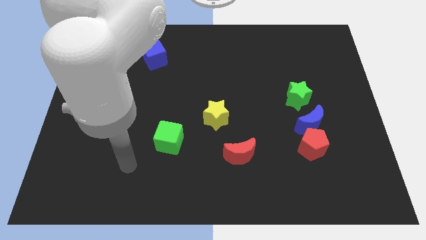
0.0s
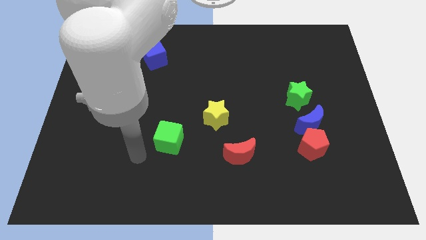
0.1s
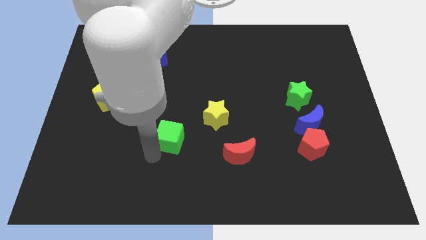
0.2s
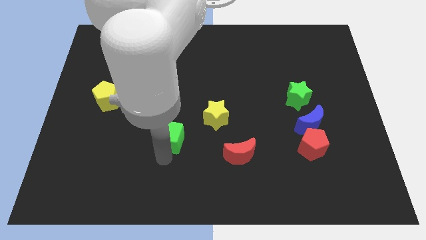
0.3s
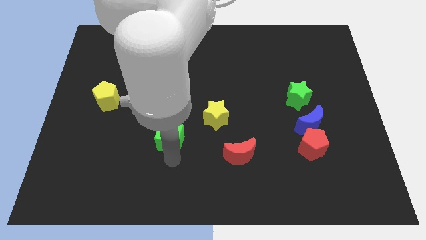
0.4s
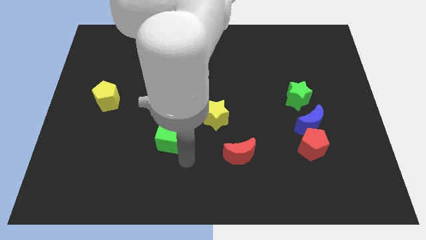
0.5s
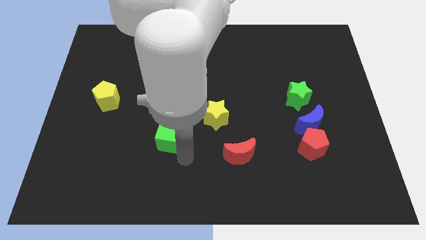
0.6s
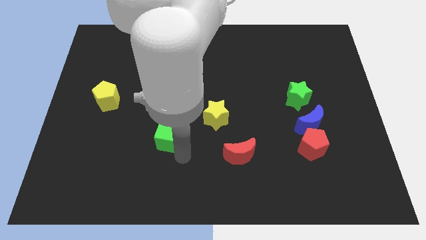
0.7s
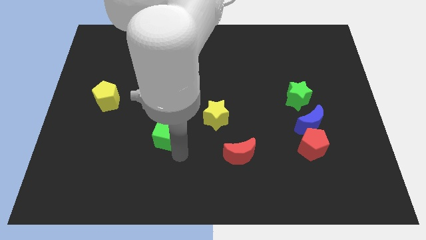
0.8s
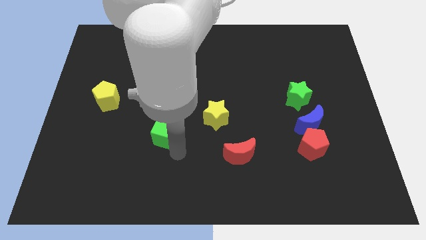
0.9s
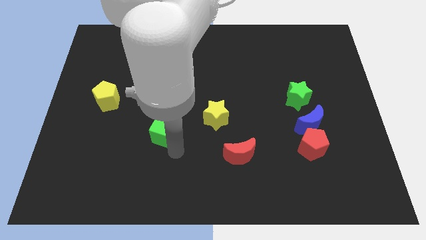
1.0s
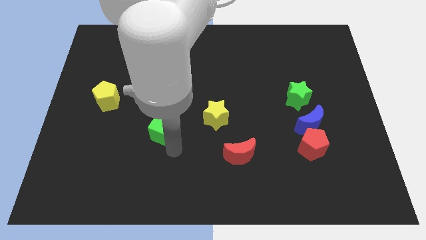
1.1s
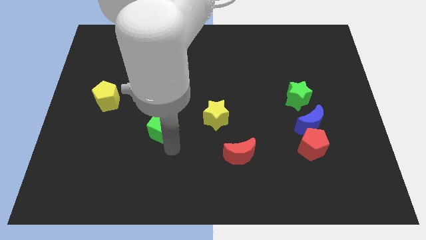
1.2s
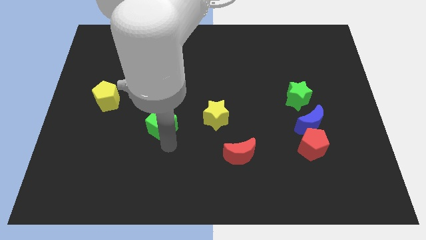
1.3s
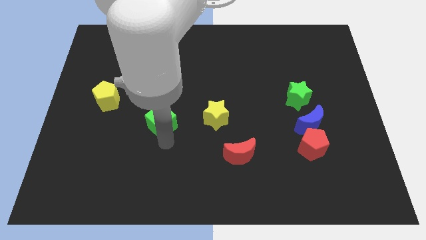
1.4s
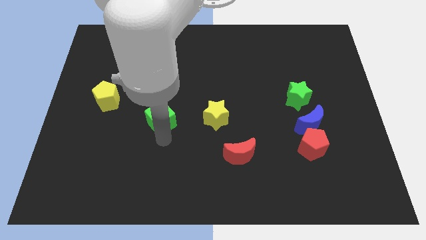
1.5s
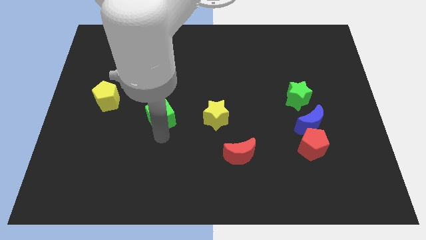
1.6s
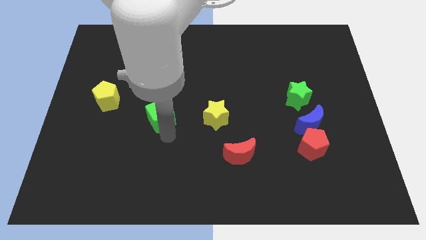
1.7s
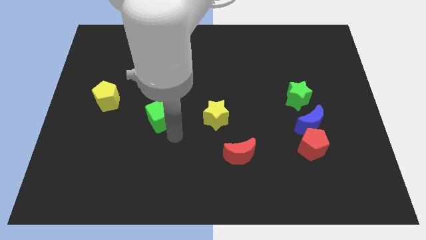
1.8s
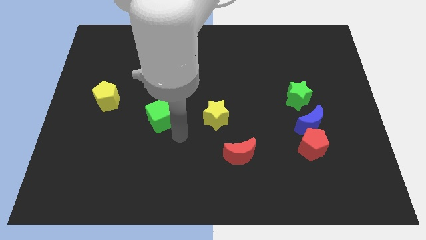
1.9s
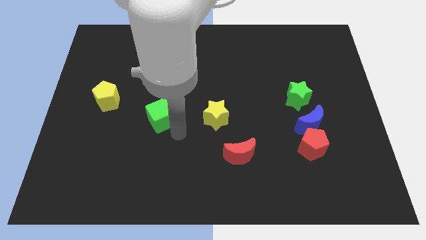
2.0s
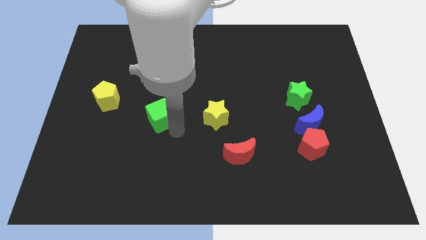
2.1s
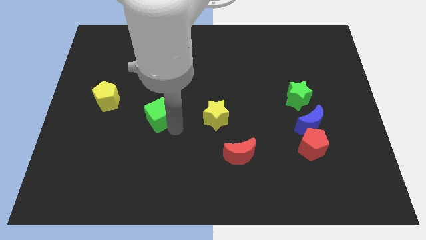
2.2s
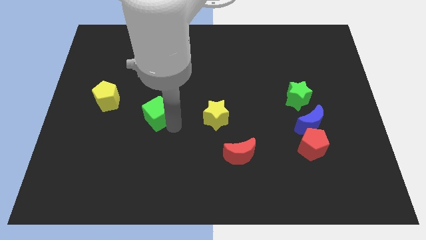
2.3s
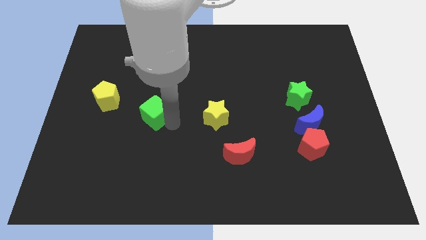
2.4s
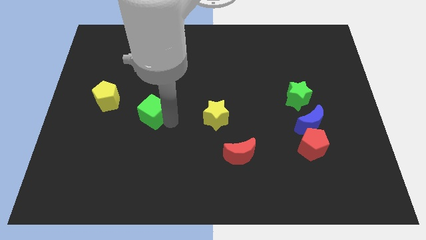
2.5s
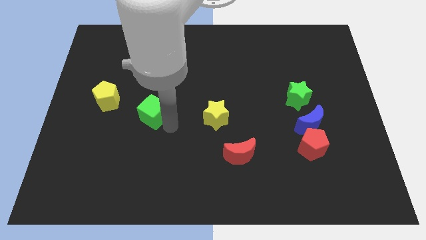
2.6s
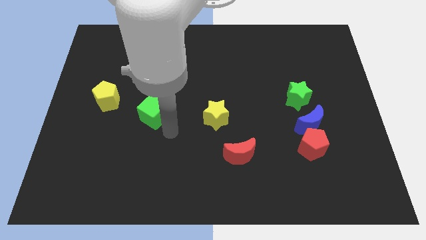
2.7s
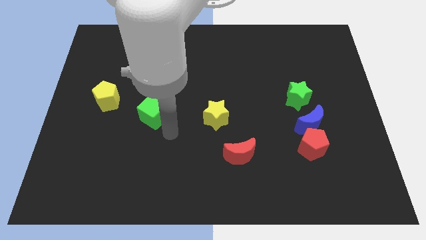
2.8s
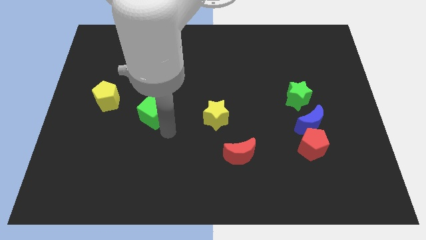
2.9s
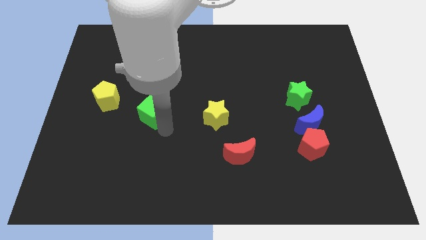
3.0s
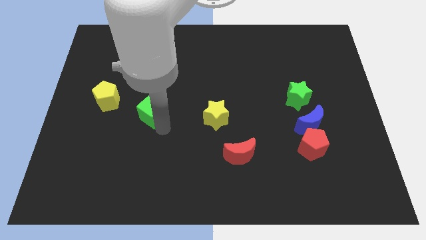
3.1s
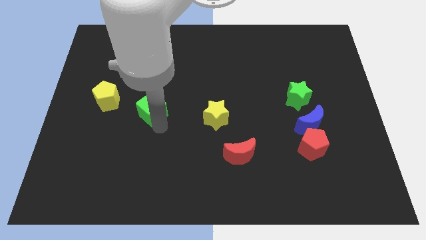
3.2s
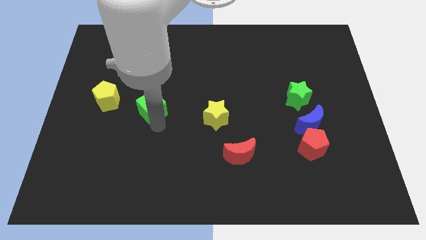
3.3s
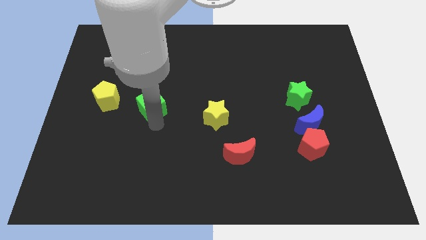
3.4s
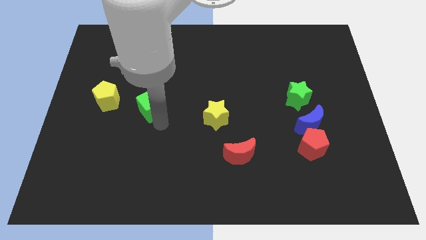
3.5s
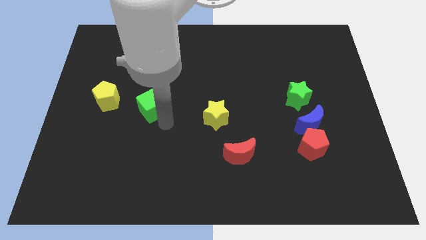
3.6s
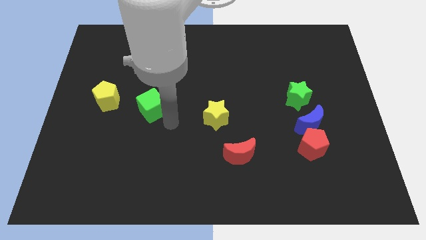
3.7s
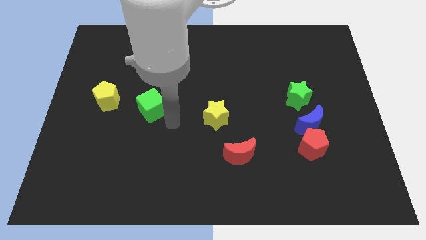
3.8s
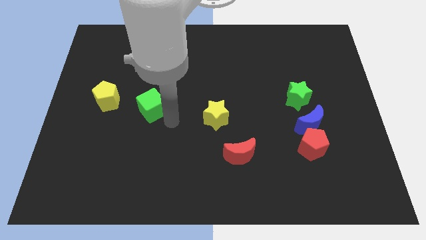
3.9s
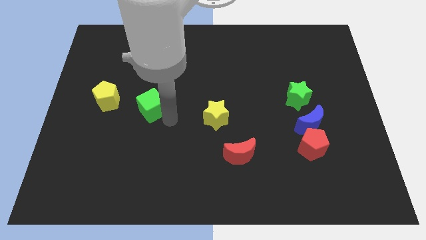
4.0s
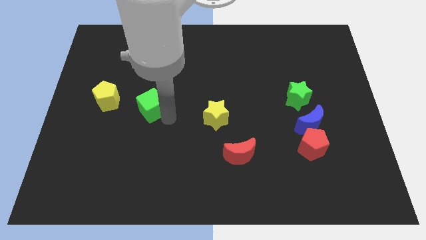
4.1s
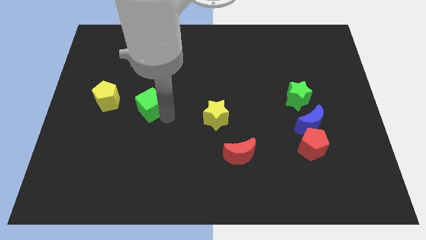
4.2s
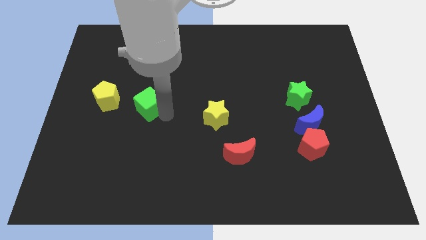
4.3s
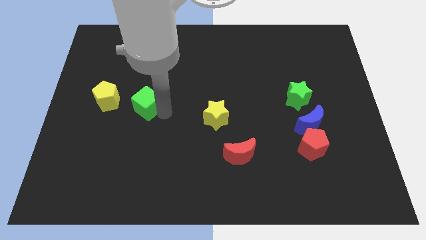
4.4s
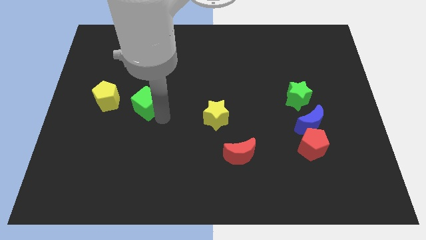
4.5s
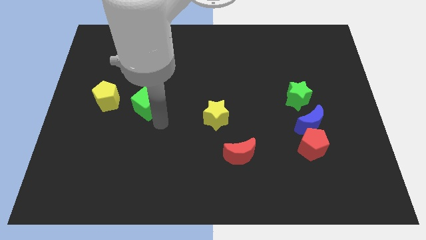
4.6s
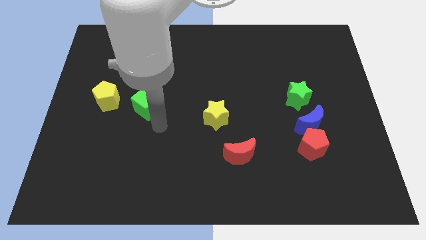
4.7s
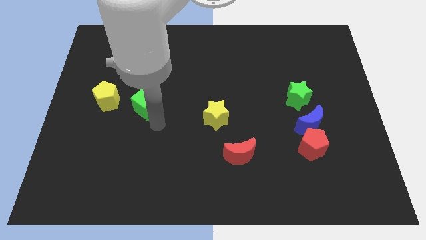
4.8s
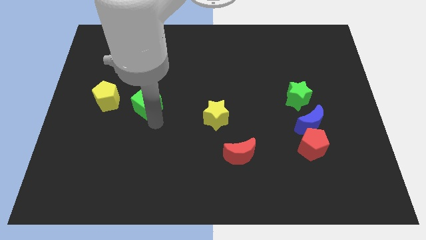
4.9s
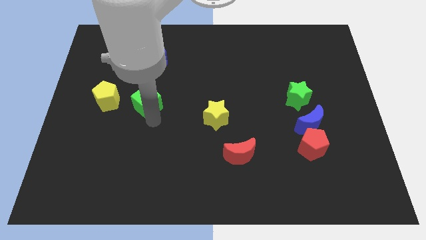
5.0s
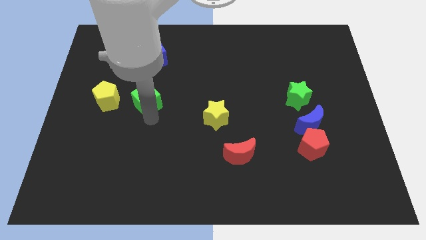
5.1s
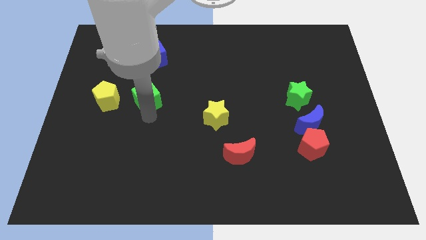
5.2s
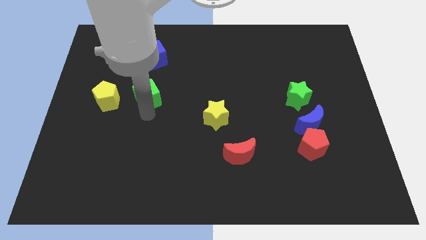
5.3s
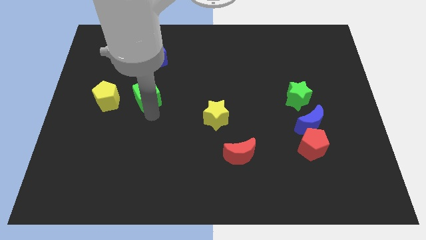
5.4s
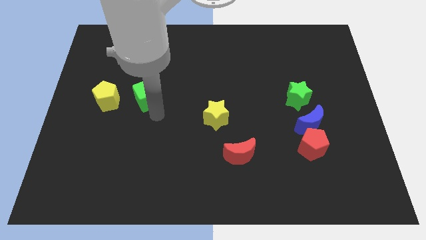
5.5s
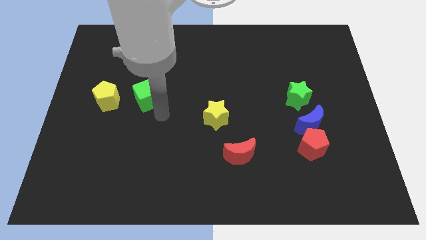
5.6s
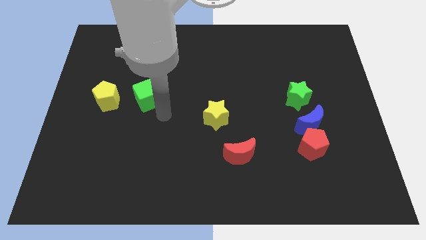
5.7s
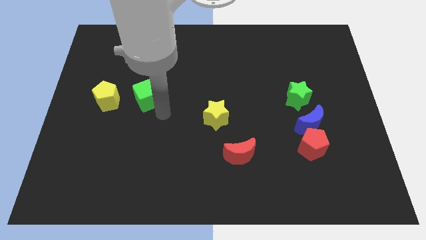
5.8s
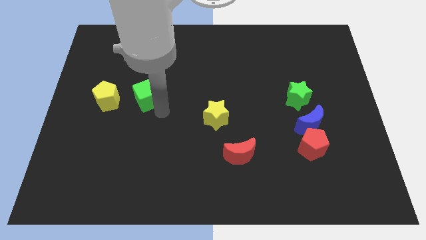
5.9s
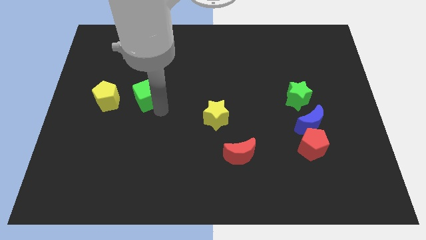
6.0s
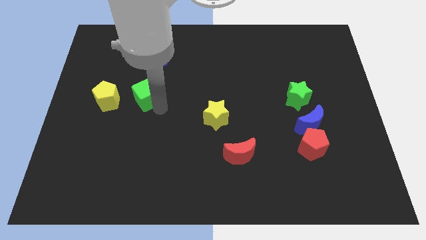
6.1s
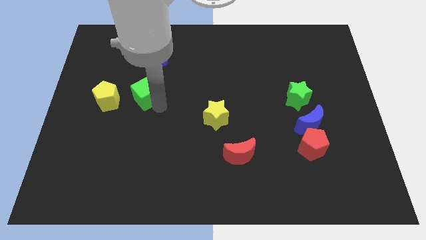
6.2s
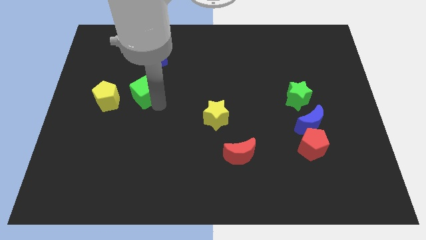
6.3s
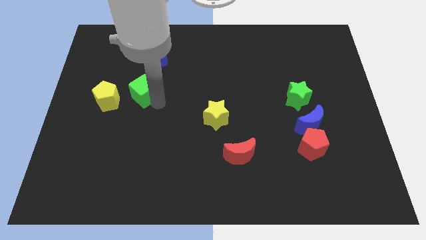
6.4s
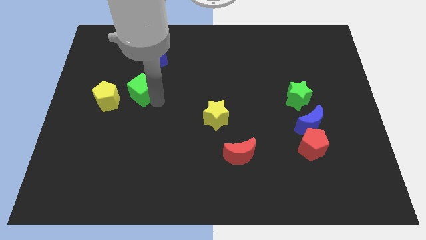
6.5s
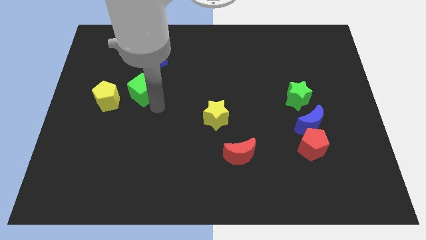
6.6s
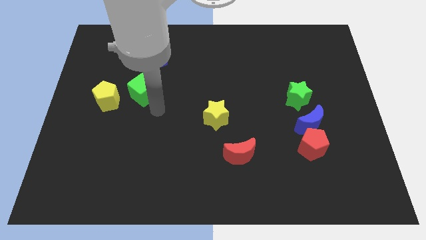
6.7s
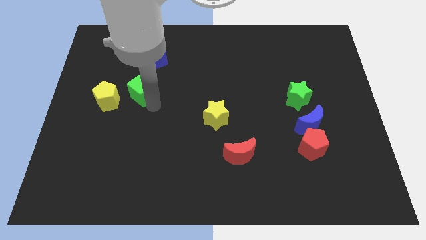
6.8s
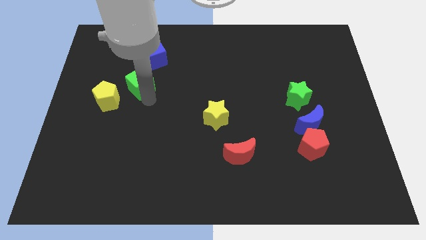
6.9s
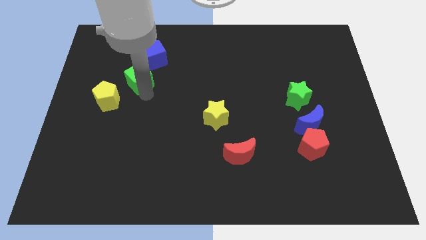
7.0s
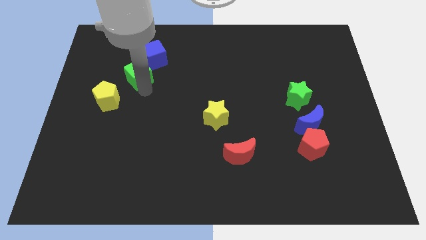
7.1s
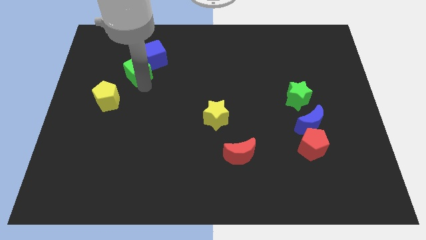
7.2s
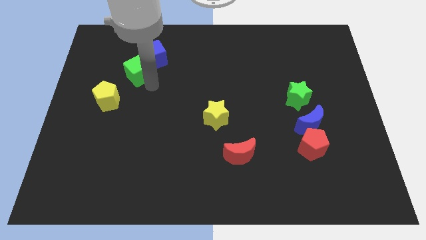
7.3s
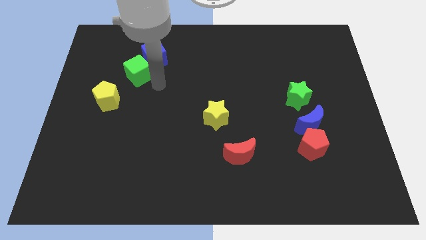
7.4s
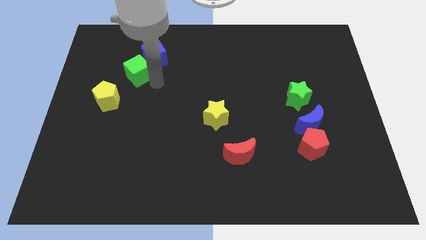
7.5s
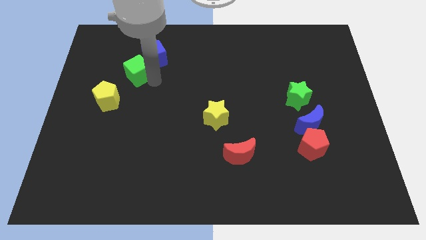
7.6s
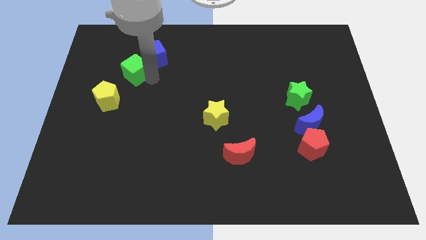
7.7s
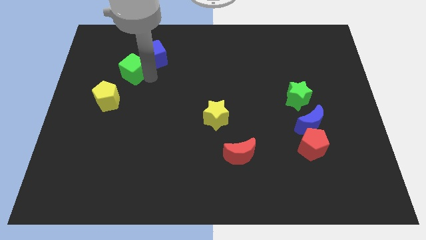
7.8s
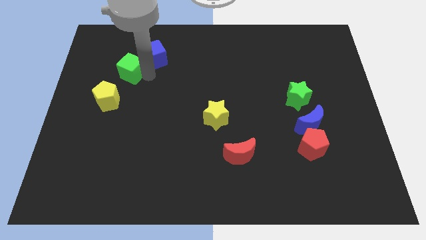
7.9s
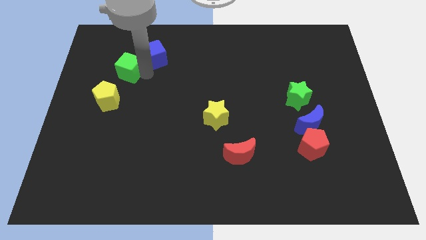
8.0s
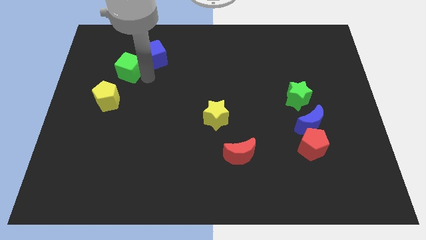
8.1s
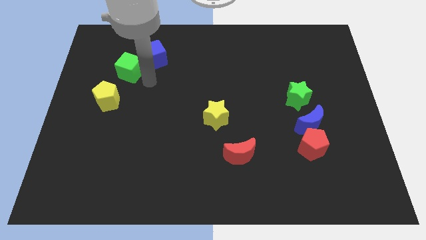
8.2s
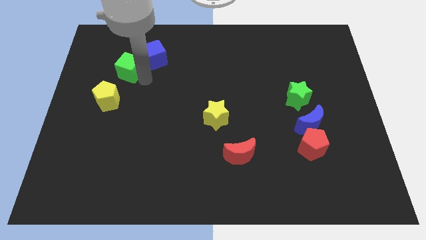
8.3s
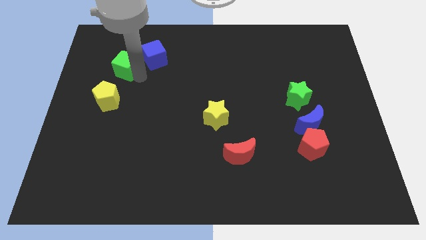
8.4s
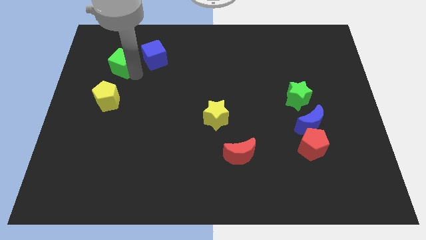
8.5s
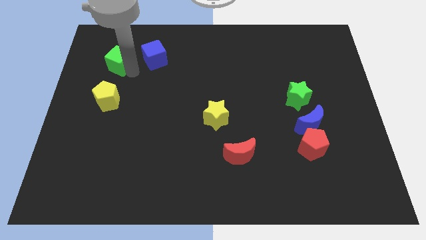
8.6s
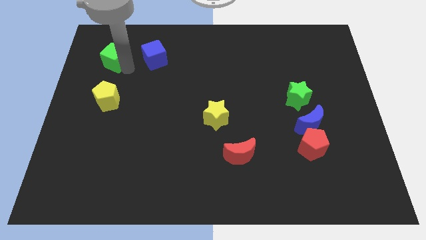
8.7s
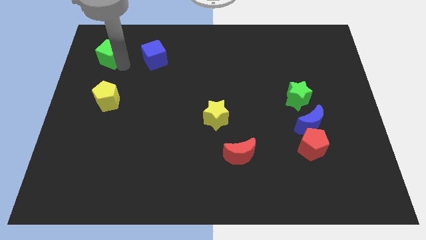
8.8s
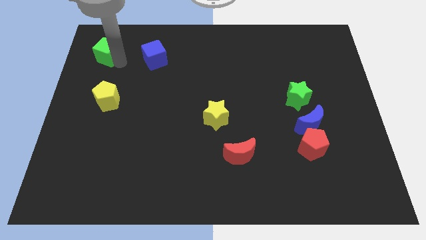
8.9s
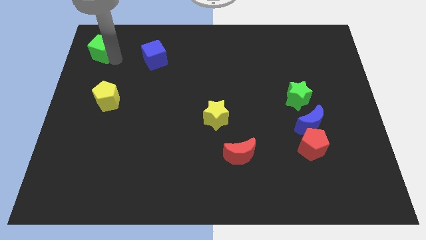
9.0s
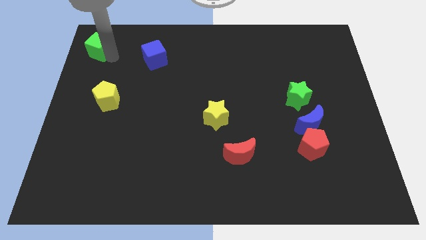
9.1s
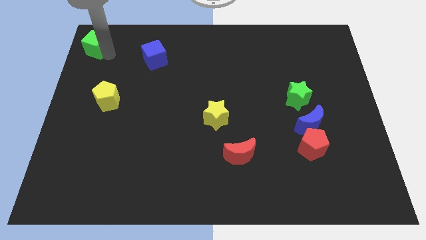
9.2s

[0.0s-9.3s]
move the green cube to the top left
